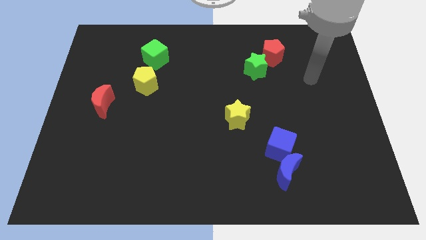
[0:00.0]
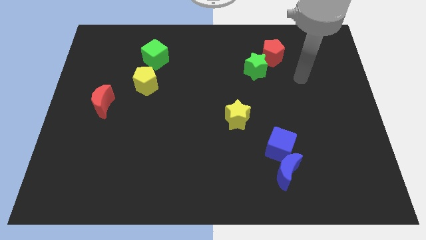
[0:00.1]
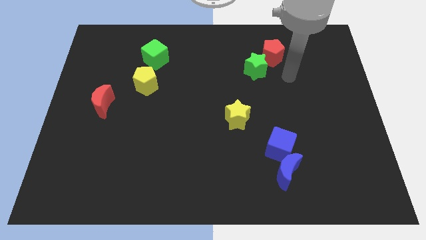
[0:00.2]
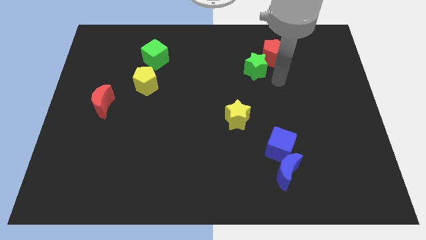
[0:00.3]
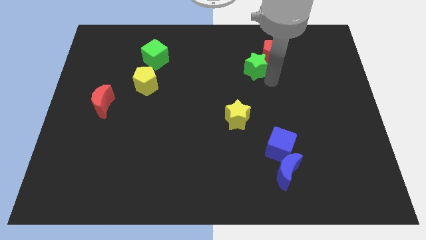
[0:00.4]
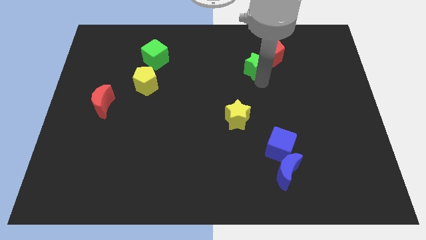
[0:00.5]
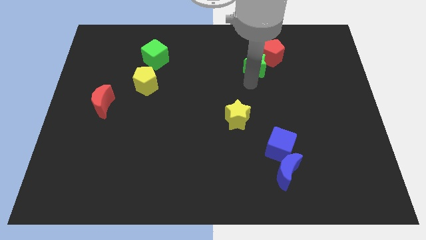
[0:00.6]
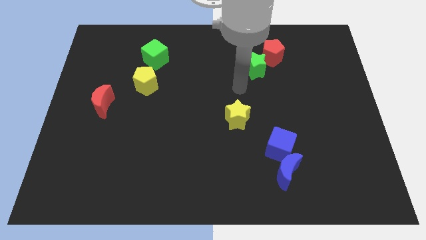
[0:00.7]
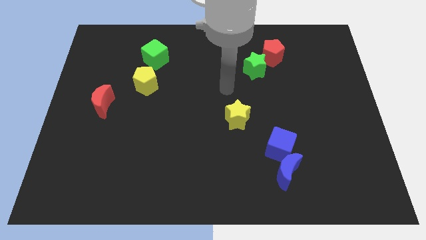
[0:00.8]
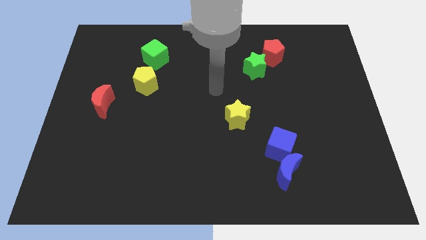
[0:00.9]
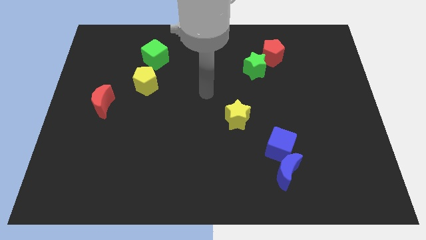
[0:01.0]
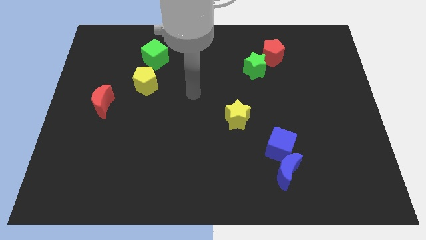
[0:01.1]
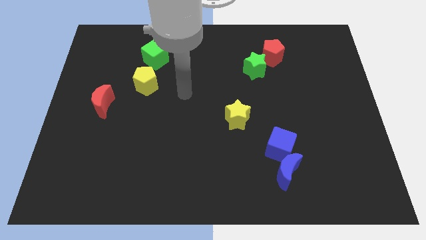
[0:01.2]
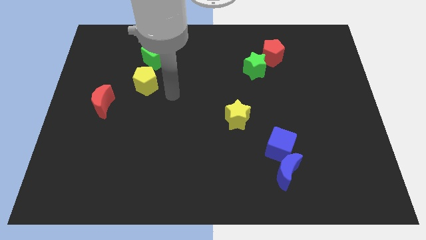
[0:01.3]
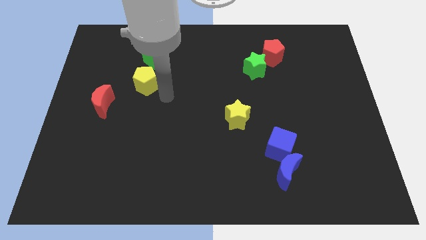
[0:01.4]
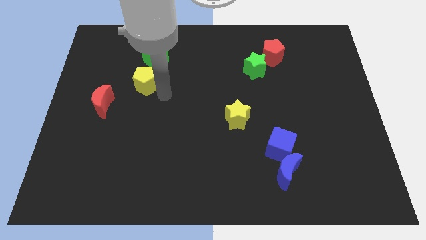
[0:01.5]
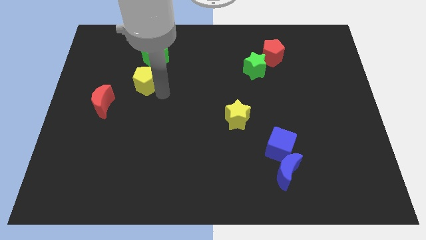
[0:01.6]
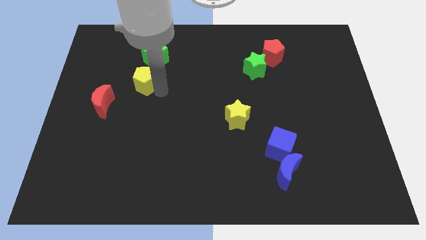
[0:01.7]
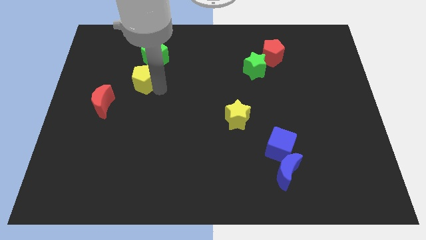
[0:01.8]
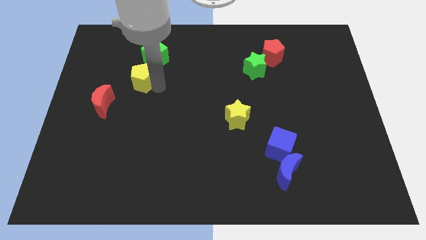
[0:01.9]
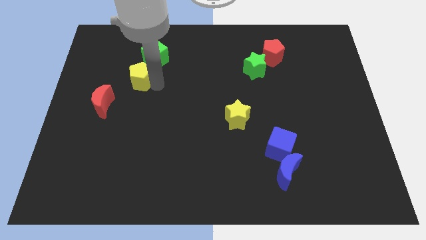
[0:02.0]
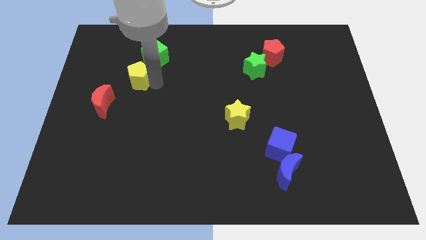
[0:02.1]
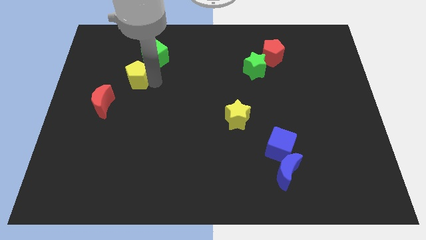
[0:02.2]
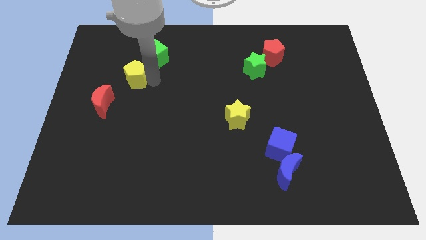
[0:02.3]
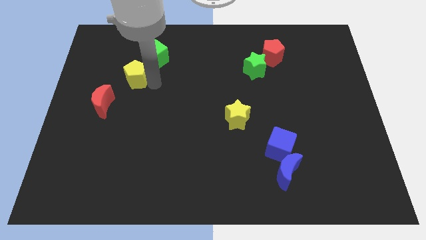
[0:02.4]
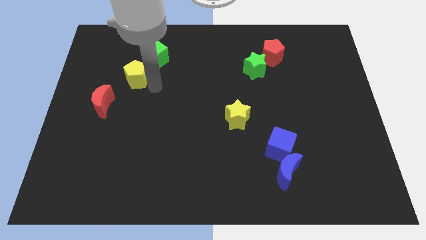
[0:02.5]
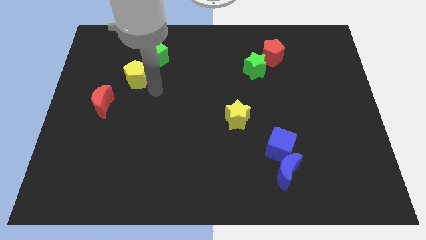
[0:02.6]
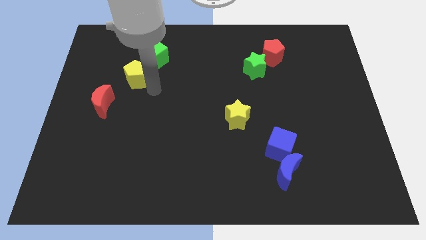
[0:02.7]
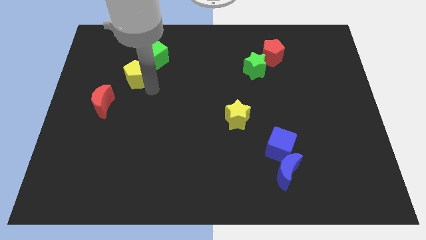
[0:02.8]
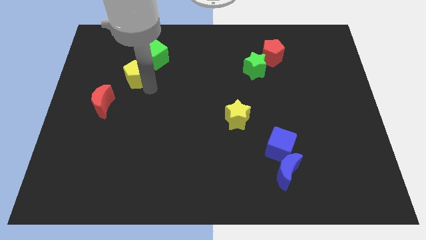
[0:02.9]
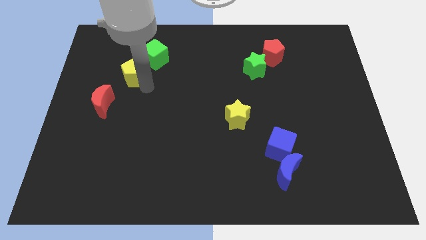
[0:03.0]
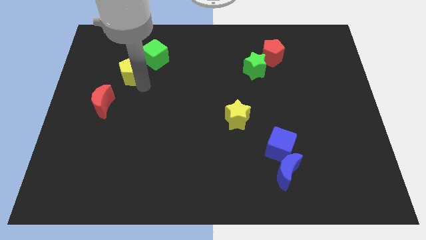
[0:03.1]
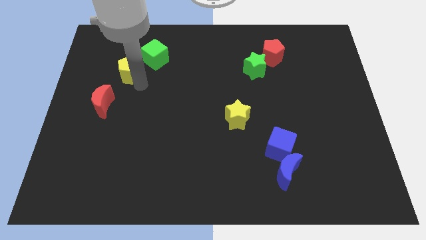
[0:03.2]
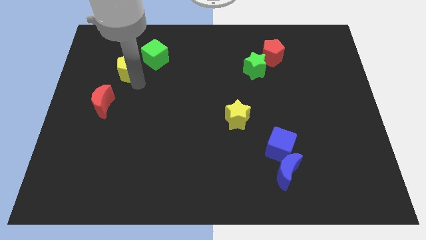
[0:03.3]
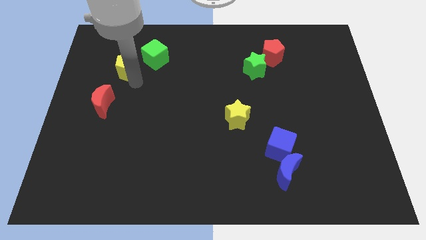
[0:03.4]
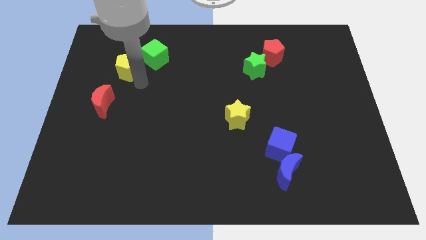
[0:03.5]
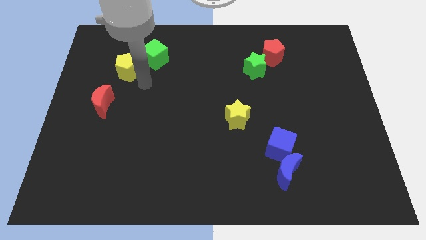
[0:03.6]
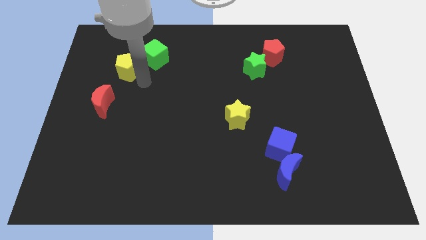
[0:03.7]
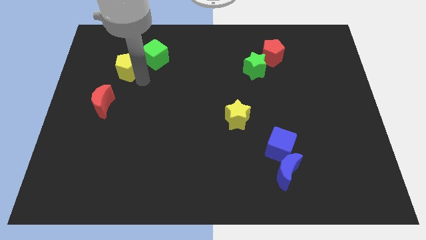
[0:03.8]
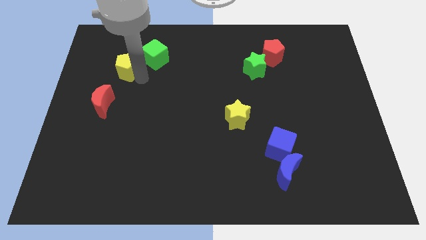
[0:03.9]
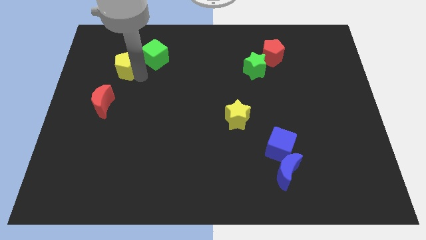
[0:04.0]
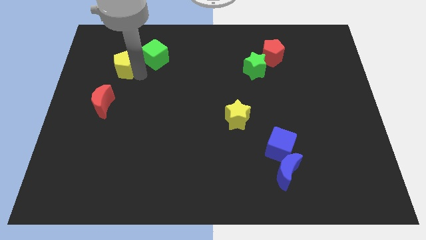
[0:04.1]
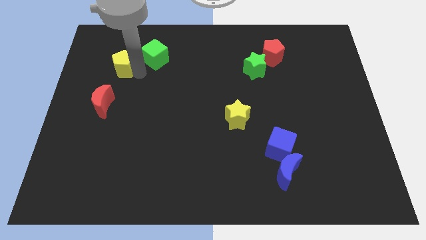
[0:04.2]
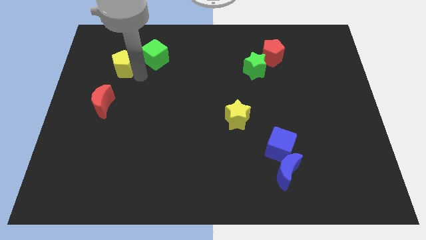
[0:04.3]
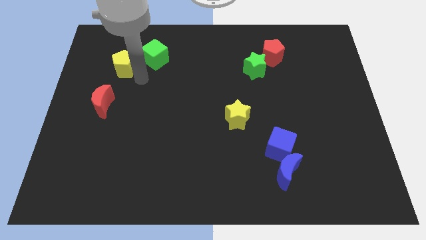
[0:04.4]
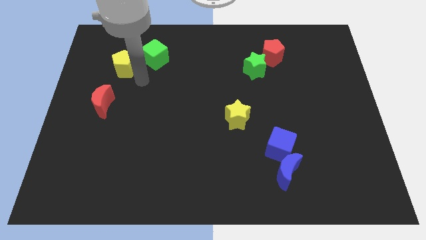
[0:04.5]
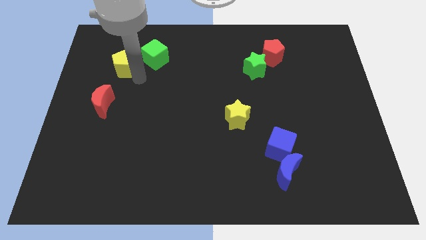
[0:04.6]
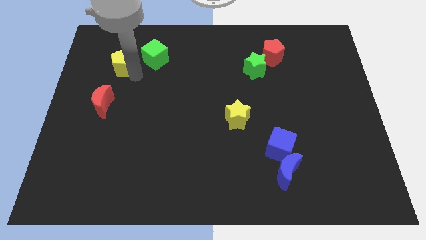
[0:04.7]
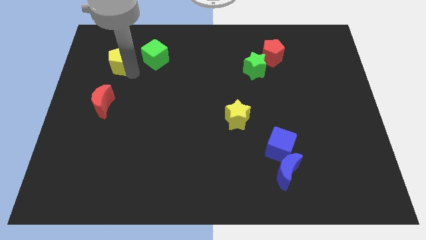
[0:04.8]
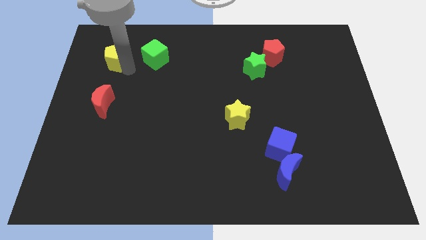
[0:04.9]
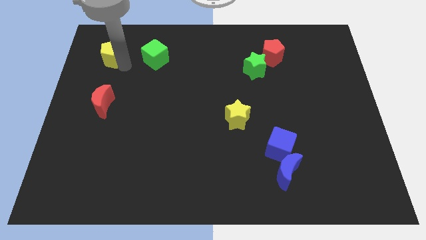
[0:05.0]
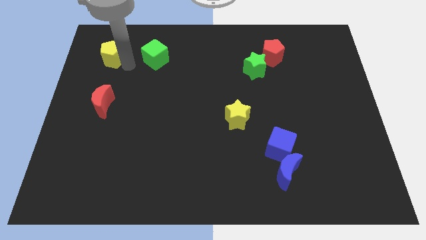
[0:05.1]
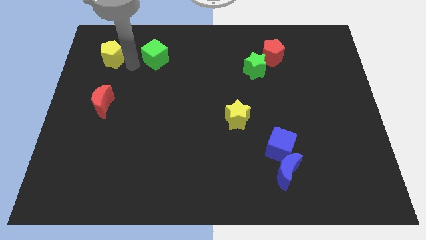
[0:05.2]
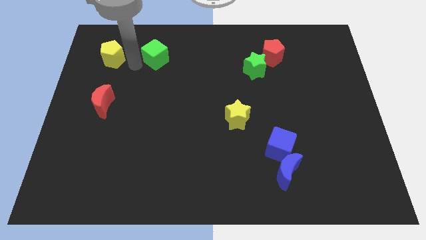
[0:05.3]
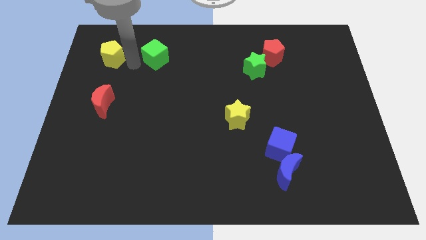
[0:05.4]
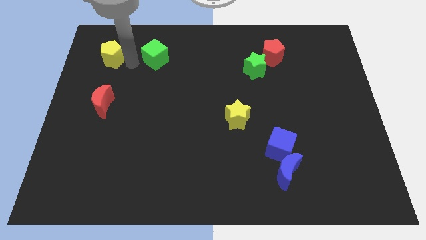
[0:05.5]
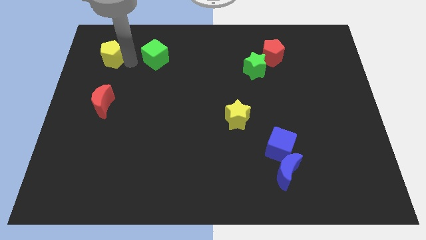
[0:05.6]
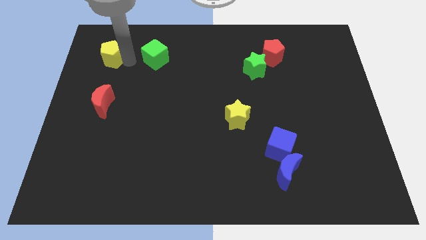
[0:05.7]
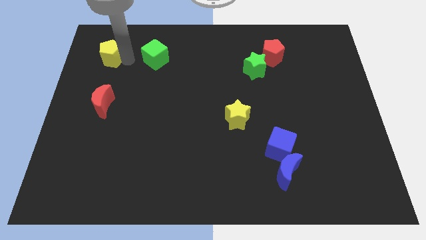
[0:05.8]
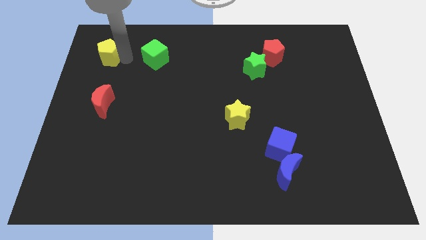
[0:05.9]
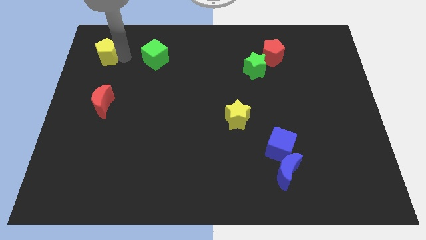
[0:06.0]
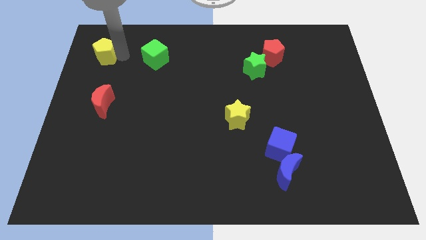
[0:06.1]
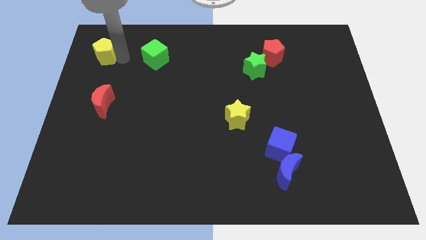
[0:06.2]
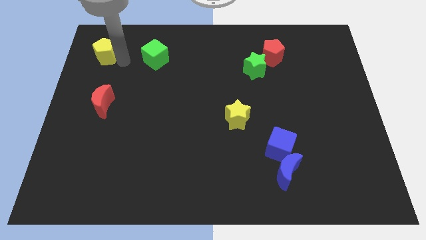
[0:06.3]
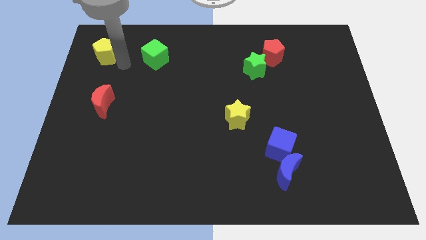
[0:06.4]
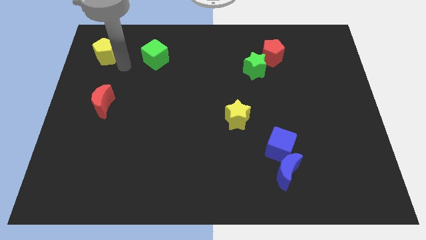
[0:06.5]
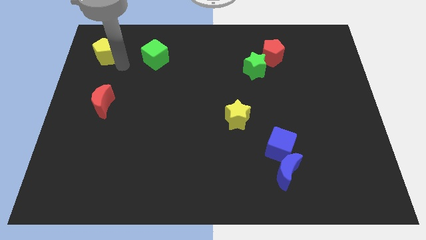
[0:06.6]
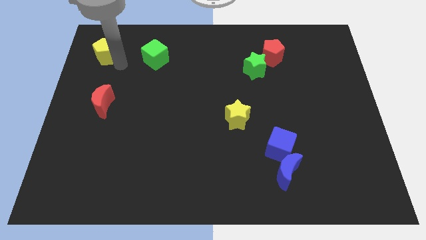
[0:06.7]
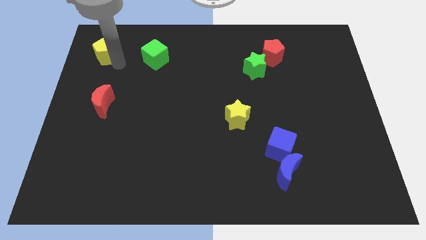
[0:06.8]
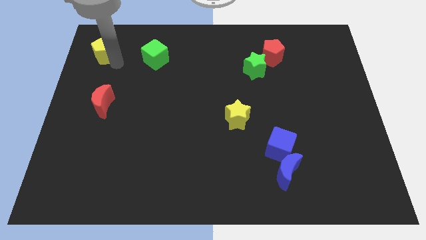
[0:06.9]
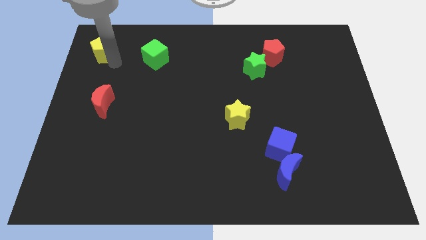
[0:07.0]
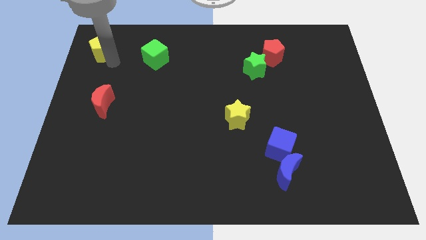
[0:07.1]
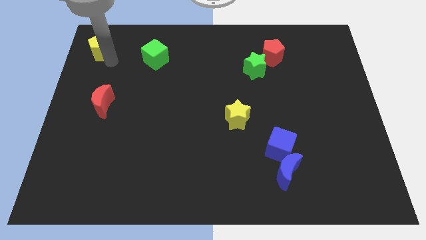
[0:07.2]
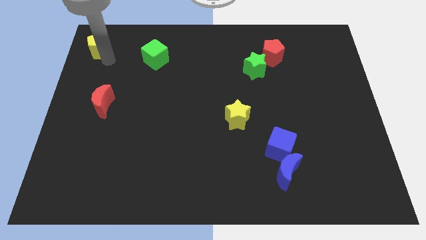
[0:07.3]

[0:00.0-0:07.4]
put the yellow pentagon to the top left
